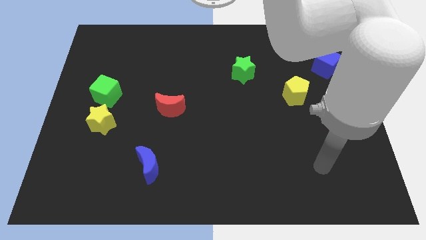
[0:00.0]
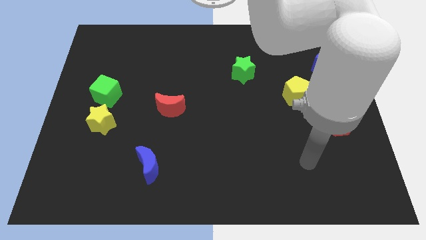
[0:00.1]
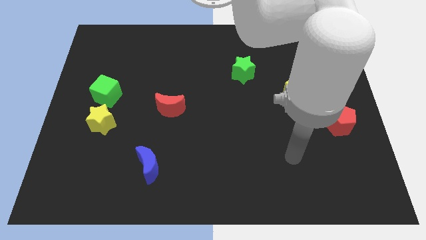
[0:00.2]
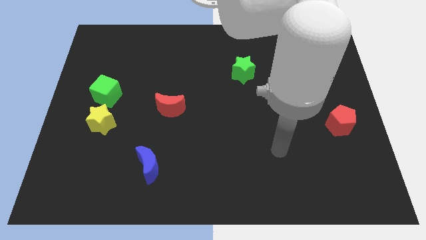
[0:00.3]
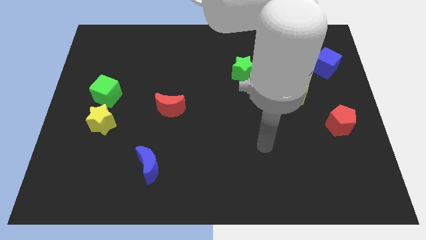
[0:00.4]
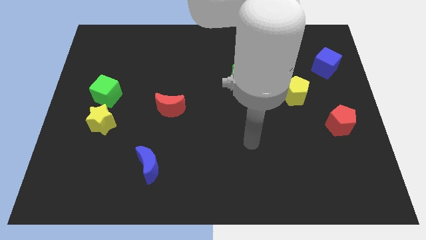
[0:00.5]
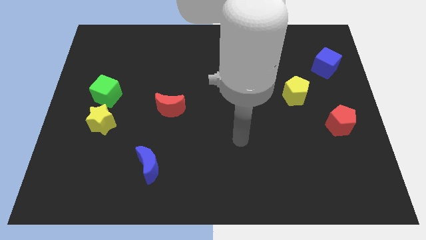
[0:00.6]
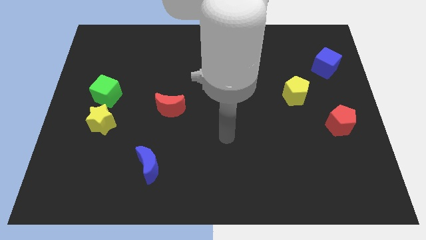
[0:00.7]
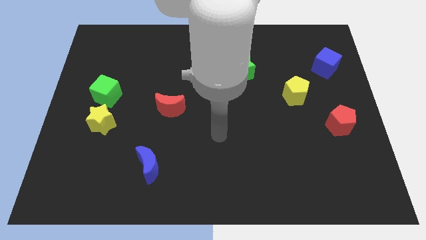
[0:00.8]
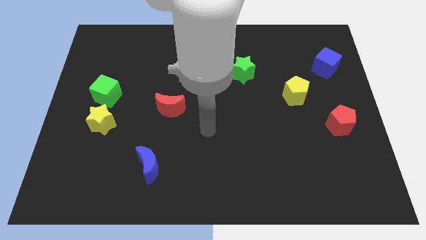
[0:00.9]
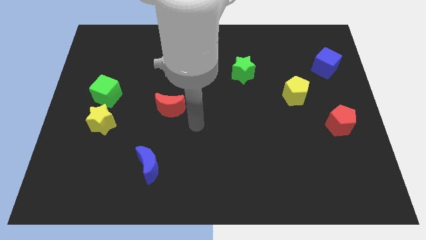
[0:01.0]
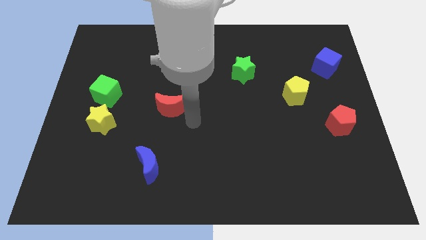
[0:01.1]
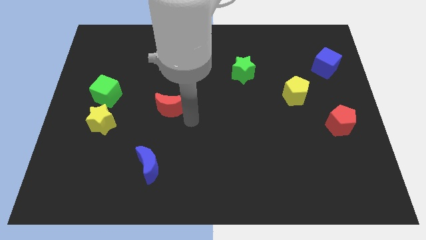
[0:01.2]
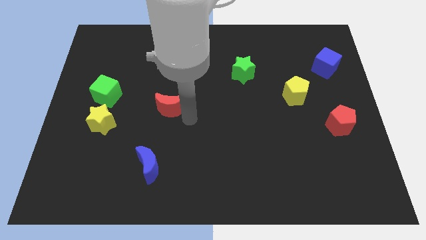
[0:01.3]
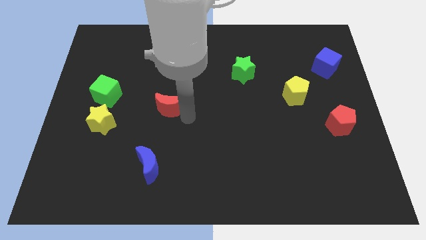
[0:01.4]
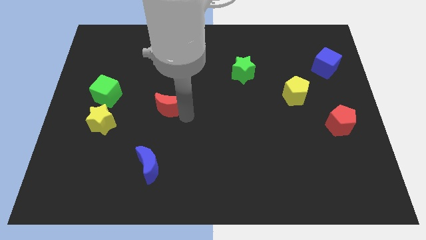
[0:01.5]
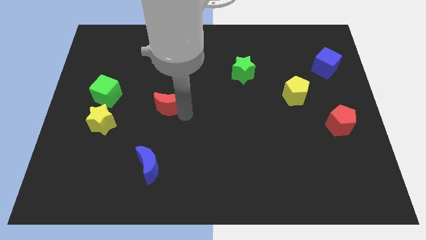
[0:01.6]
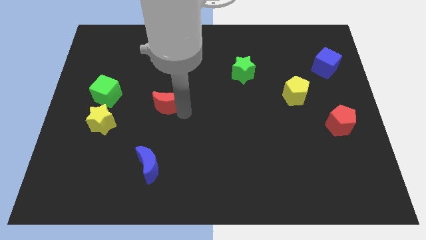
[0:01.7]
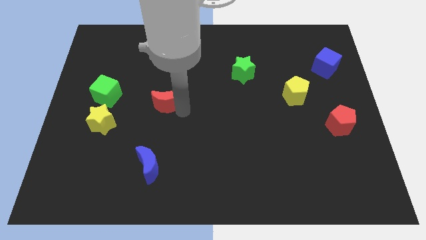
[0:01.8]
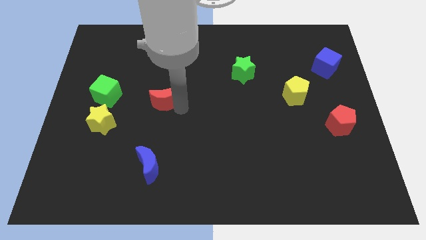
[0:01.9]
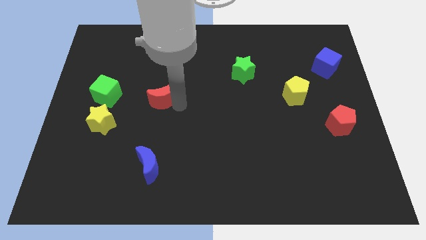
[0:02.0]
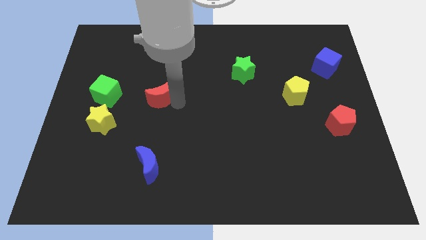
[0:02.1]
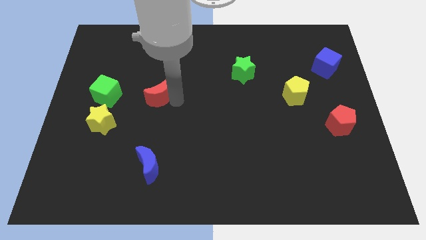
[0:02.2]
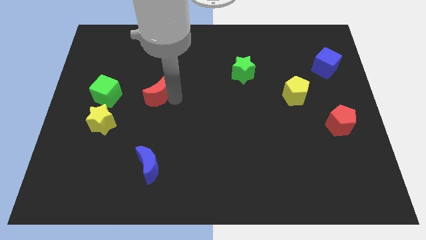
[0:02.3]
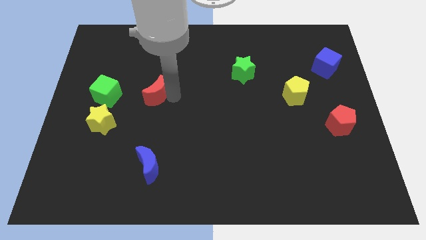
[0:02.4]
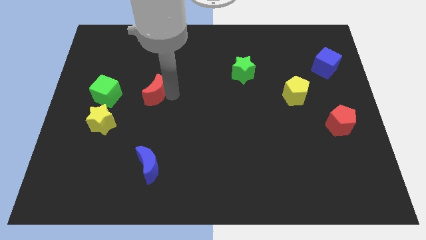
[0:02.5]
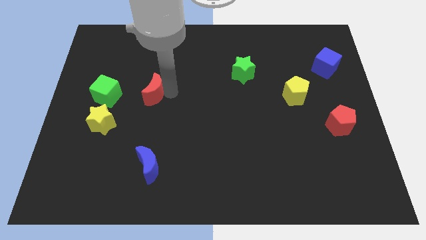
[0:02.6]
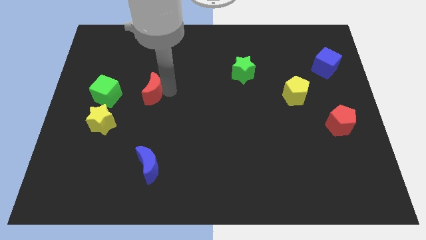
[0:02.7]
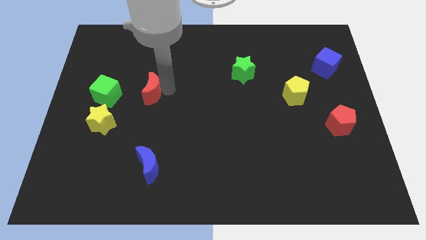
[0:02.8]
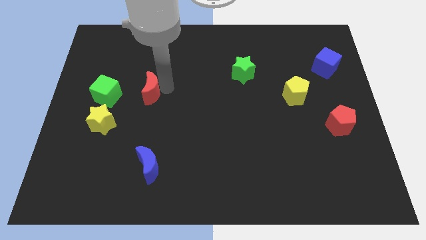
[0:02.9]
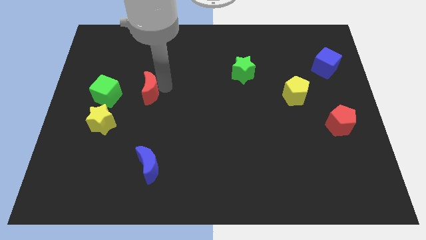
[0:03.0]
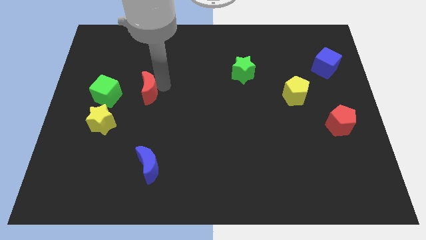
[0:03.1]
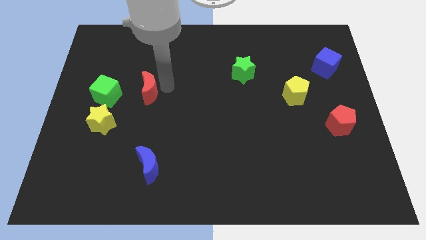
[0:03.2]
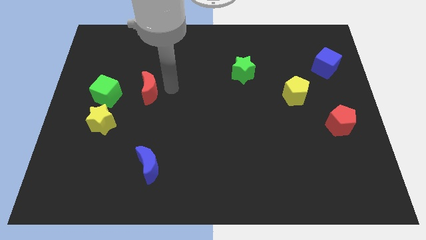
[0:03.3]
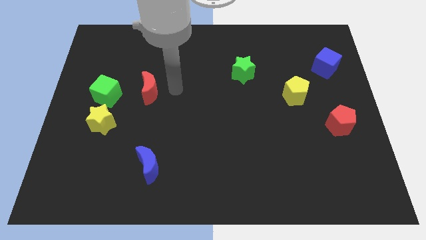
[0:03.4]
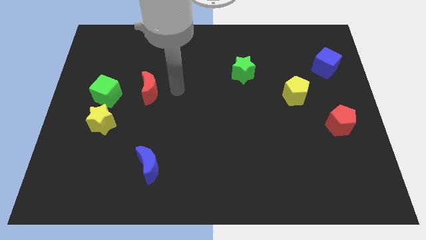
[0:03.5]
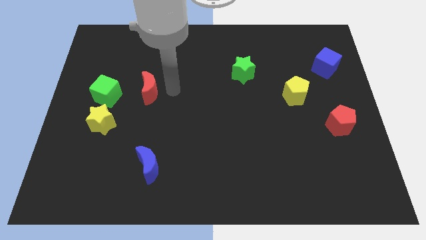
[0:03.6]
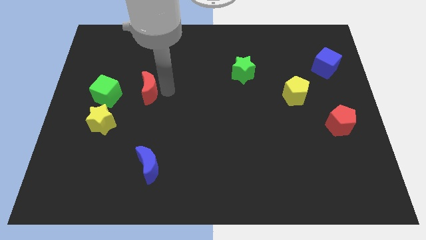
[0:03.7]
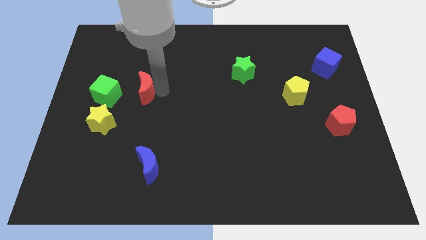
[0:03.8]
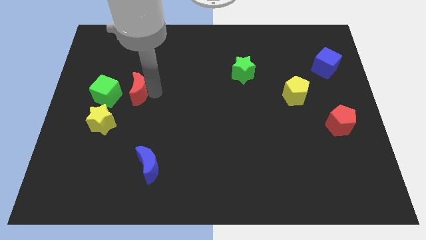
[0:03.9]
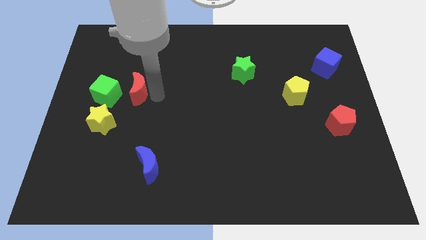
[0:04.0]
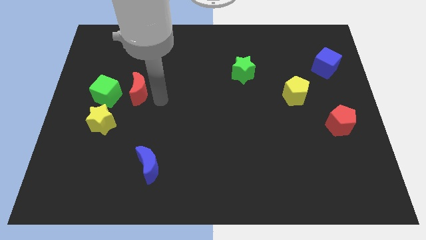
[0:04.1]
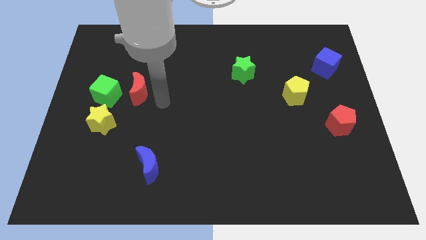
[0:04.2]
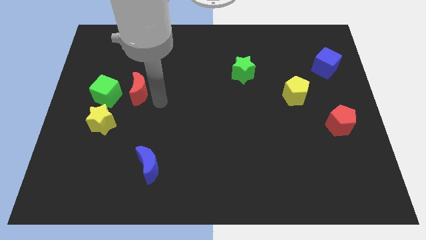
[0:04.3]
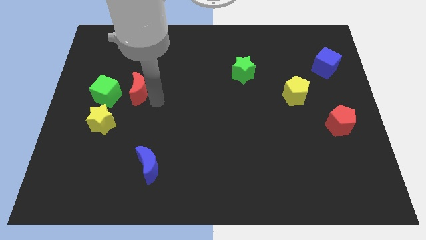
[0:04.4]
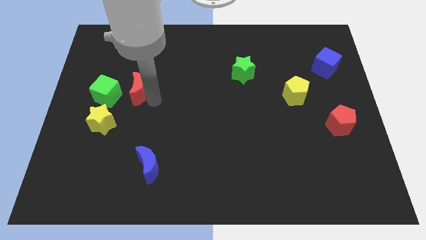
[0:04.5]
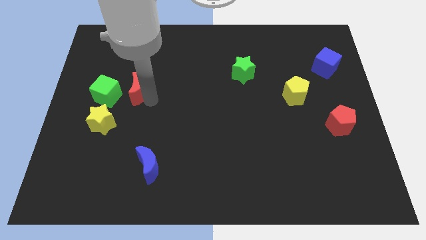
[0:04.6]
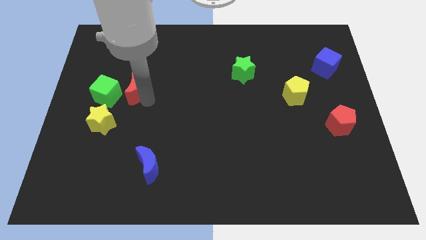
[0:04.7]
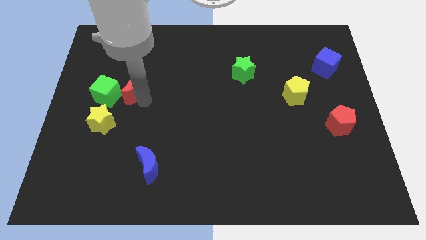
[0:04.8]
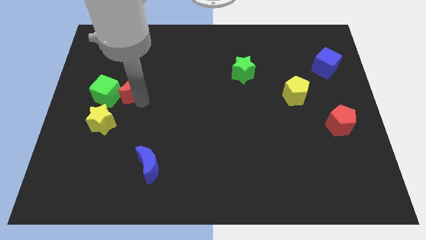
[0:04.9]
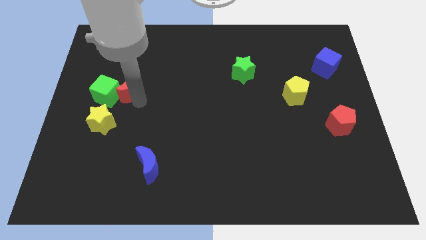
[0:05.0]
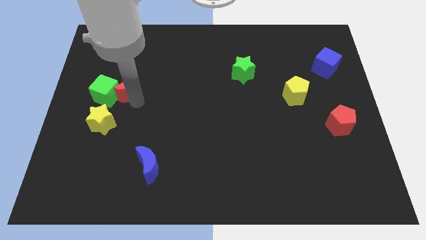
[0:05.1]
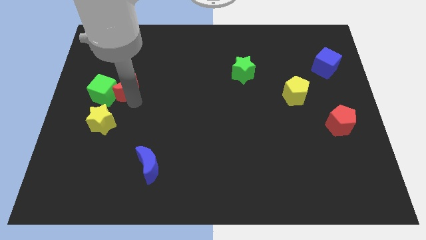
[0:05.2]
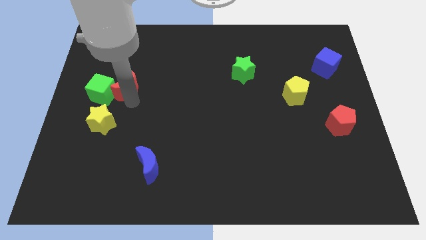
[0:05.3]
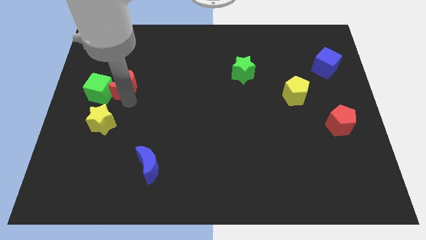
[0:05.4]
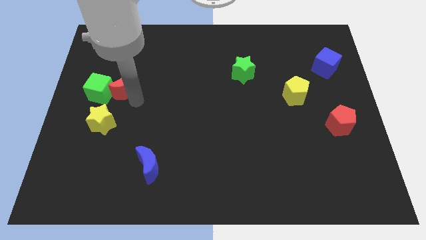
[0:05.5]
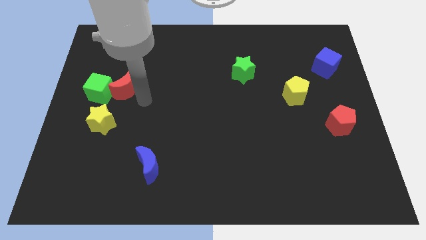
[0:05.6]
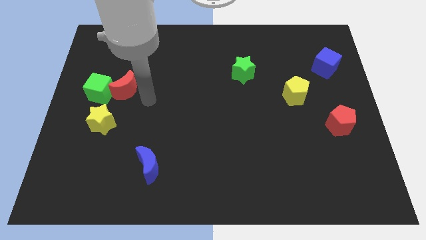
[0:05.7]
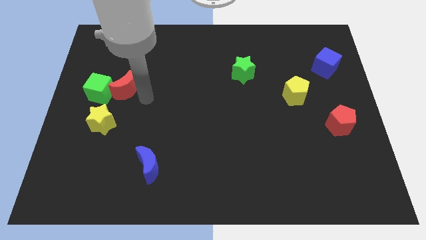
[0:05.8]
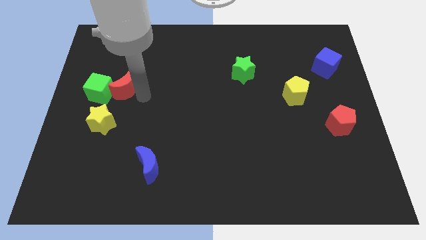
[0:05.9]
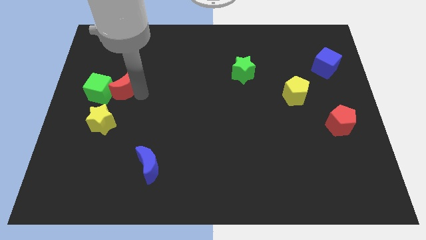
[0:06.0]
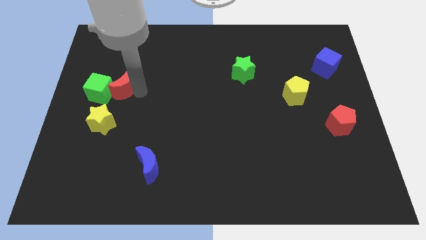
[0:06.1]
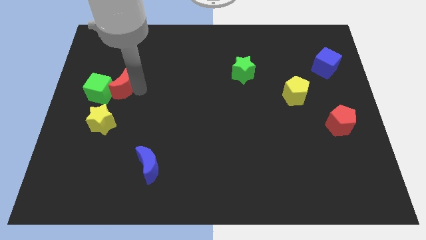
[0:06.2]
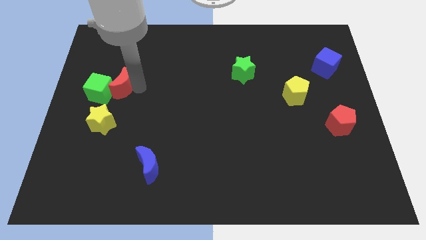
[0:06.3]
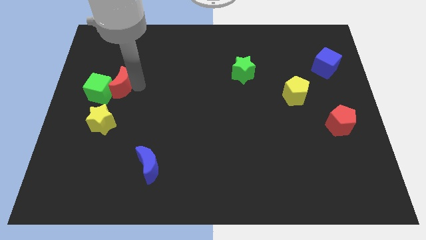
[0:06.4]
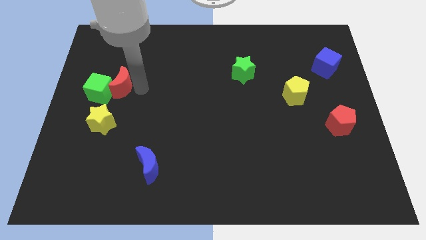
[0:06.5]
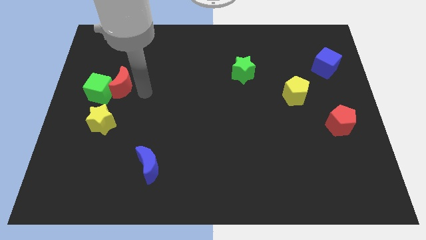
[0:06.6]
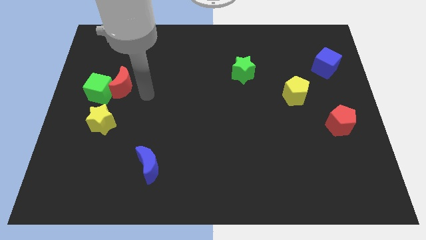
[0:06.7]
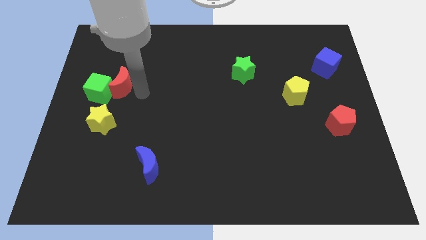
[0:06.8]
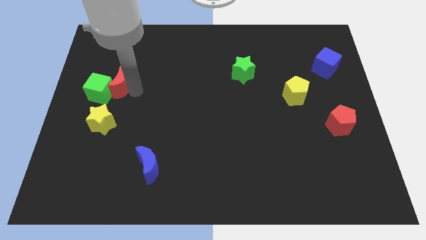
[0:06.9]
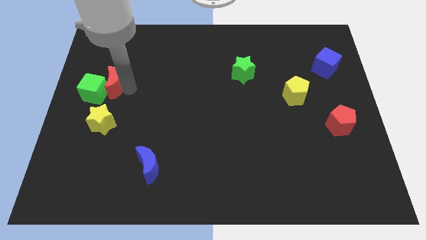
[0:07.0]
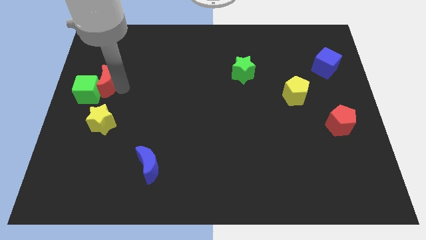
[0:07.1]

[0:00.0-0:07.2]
slide the red moon to the left side of the board
